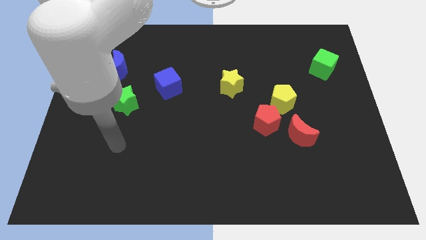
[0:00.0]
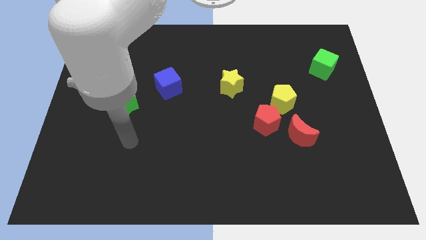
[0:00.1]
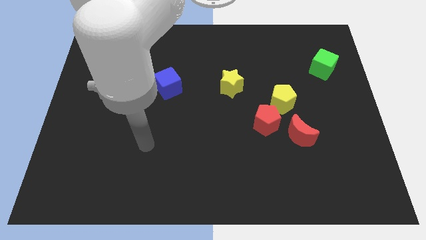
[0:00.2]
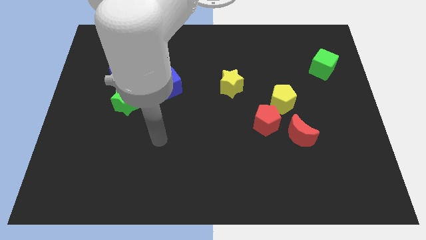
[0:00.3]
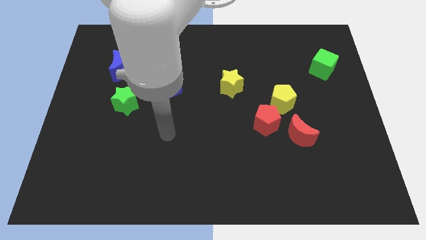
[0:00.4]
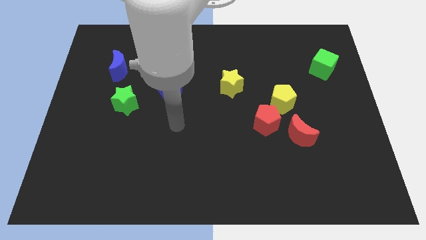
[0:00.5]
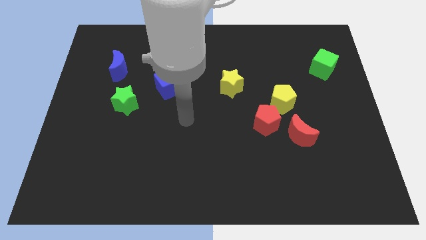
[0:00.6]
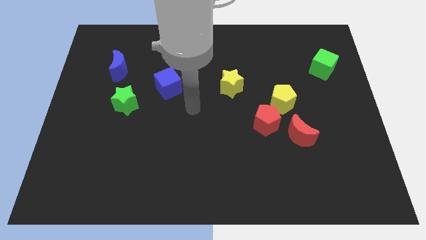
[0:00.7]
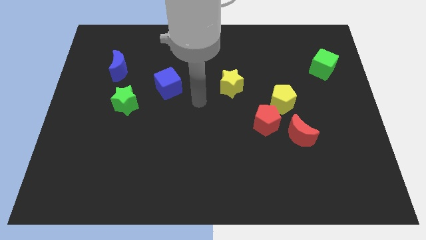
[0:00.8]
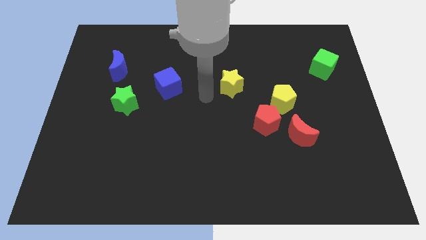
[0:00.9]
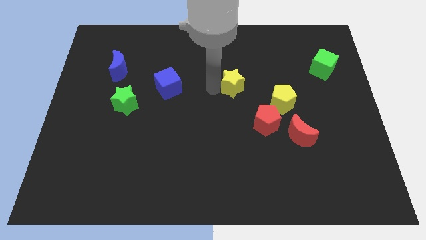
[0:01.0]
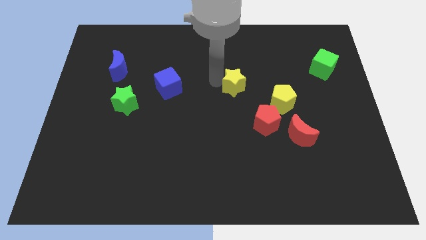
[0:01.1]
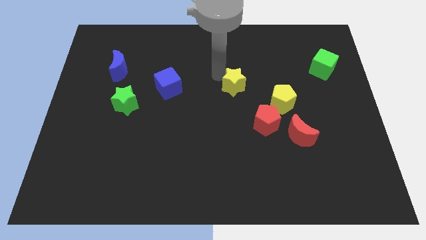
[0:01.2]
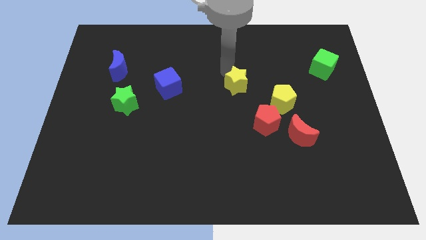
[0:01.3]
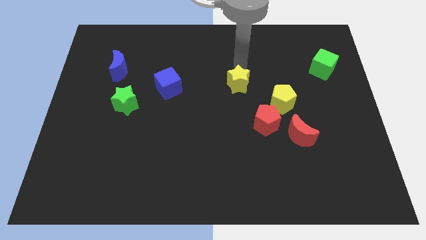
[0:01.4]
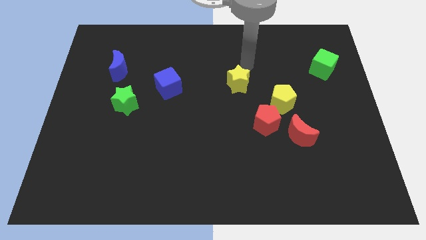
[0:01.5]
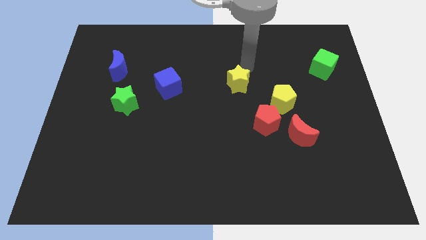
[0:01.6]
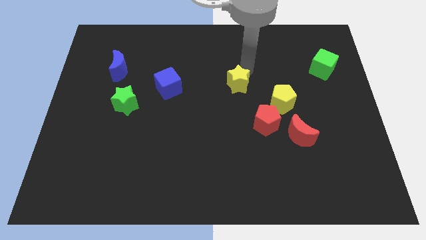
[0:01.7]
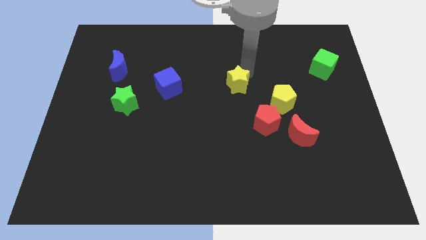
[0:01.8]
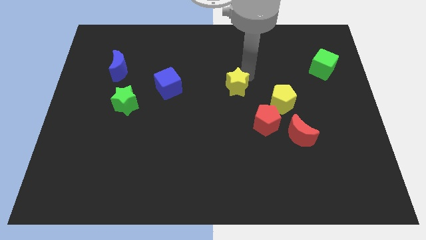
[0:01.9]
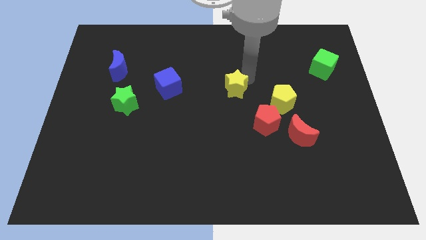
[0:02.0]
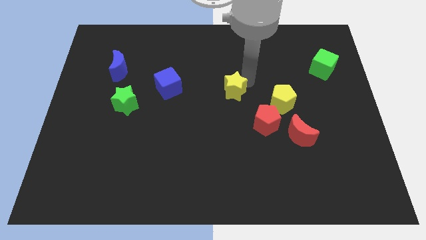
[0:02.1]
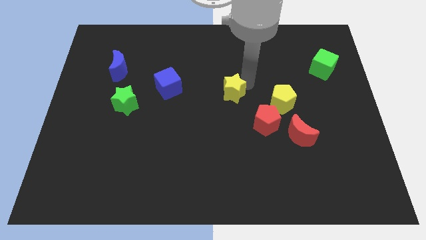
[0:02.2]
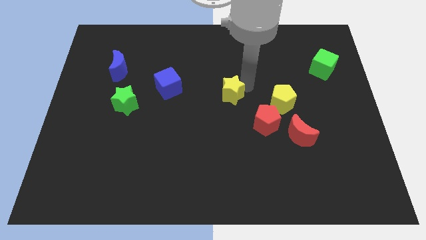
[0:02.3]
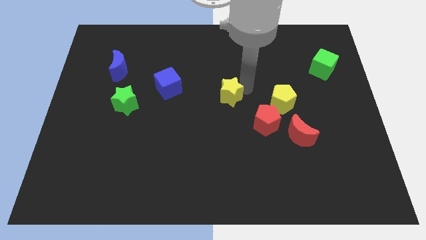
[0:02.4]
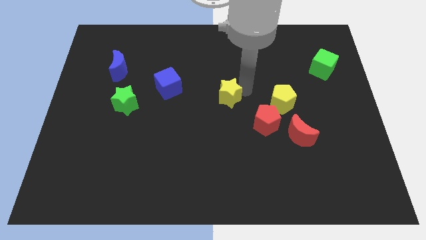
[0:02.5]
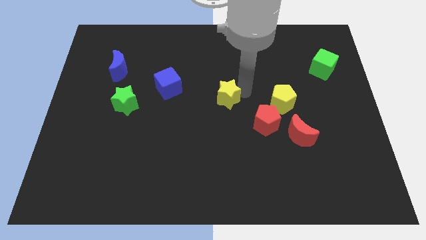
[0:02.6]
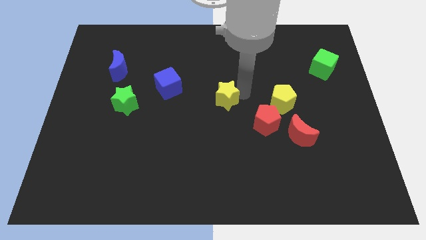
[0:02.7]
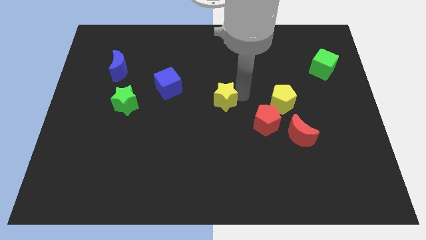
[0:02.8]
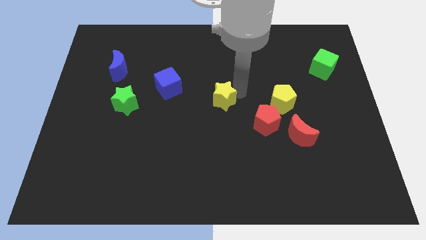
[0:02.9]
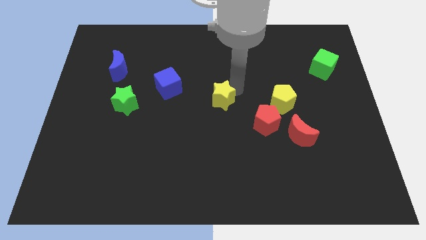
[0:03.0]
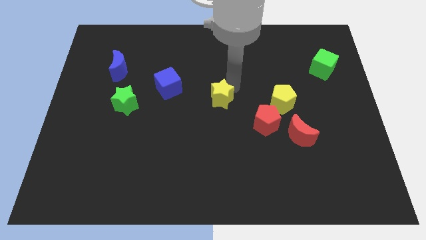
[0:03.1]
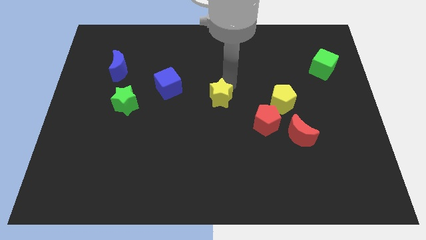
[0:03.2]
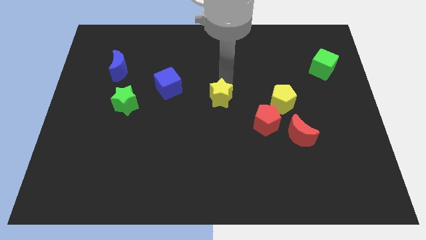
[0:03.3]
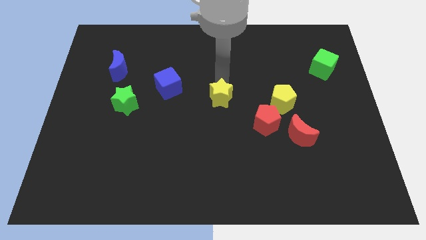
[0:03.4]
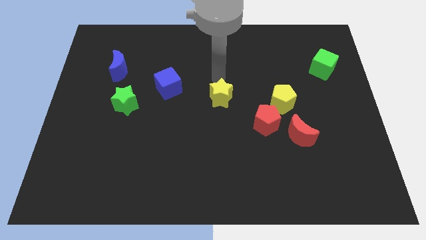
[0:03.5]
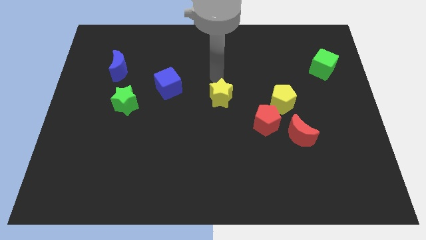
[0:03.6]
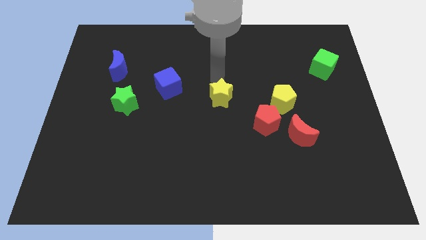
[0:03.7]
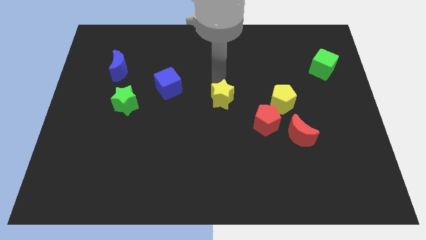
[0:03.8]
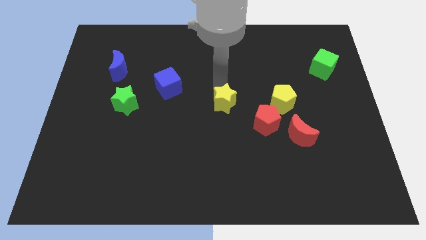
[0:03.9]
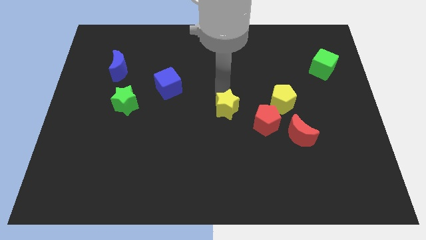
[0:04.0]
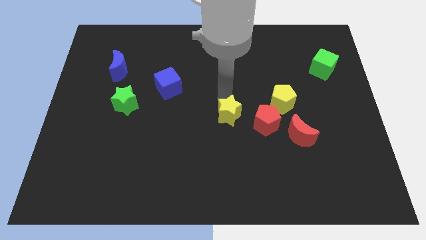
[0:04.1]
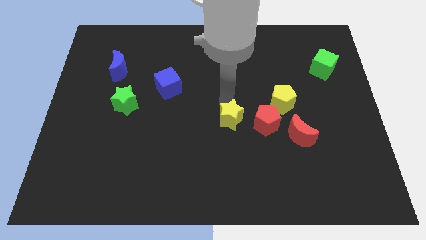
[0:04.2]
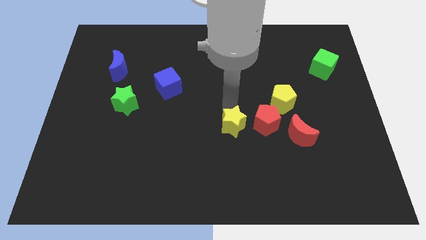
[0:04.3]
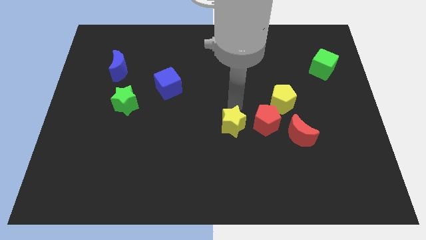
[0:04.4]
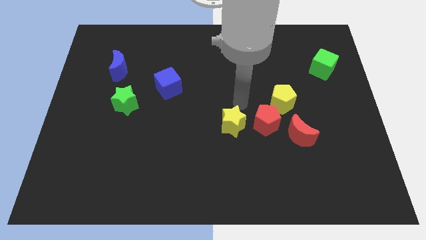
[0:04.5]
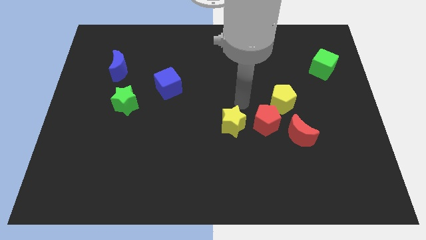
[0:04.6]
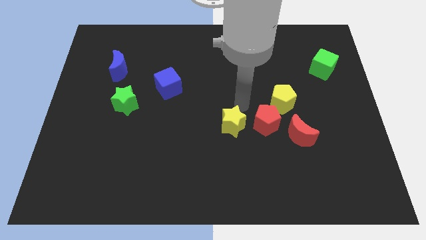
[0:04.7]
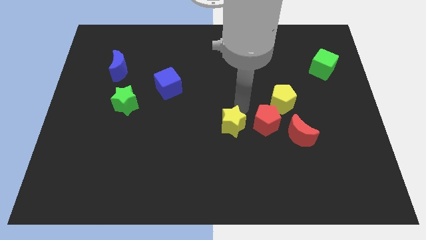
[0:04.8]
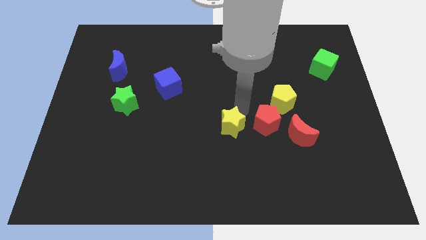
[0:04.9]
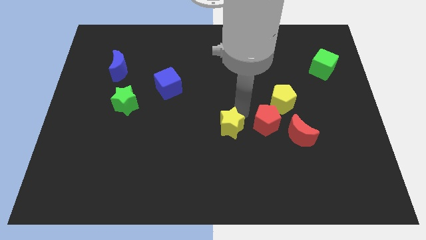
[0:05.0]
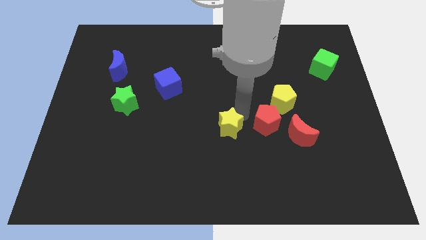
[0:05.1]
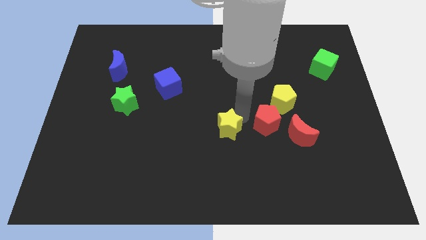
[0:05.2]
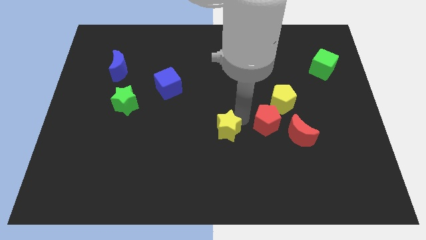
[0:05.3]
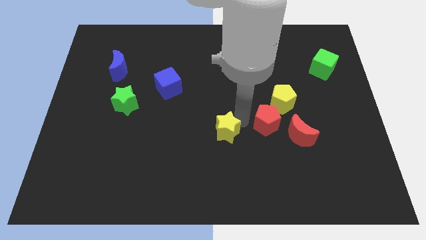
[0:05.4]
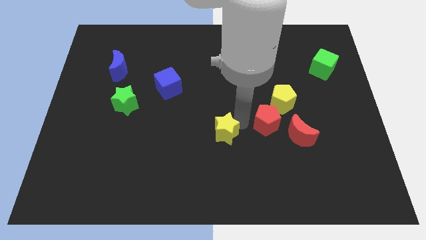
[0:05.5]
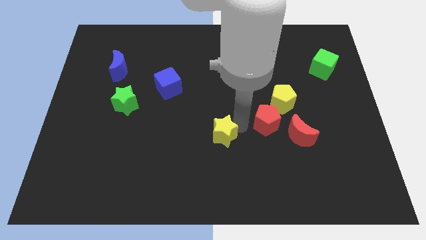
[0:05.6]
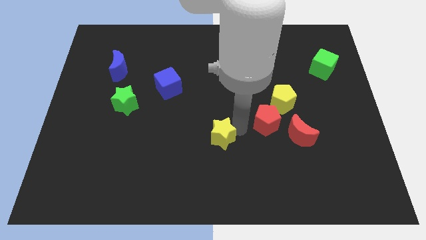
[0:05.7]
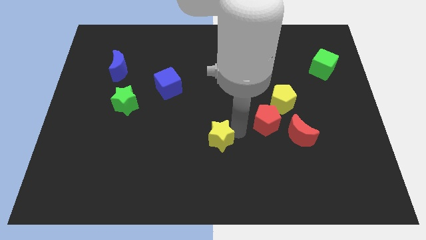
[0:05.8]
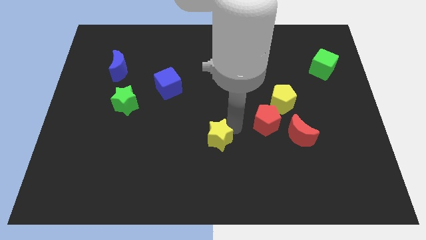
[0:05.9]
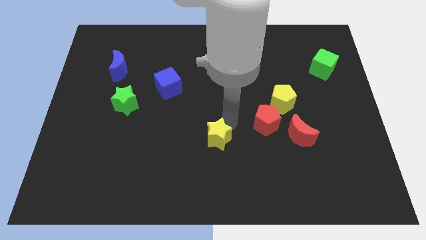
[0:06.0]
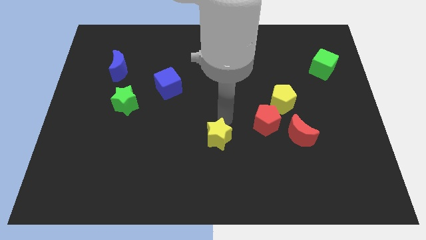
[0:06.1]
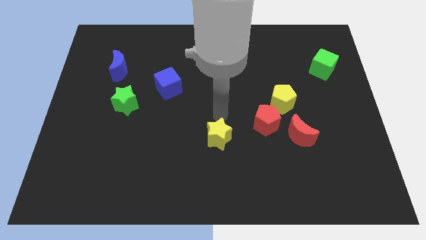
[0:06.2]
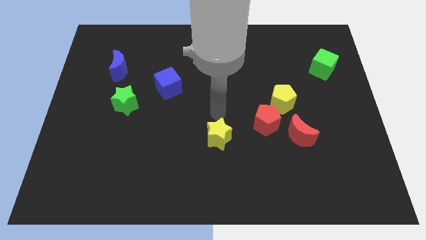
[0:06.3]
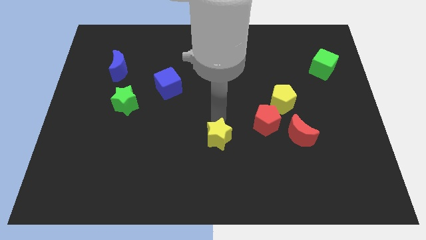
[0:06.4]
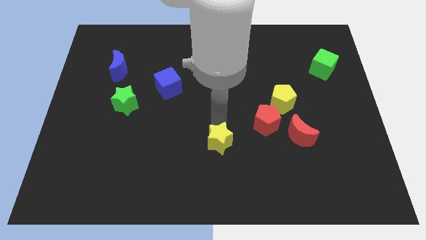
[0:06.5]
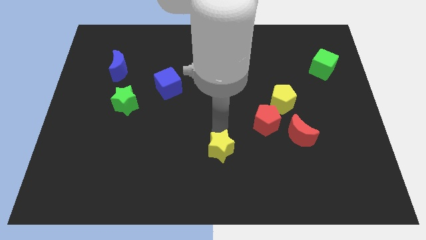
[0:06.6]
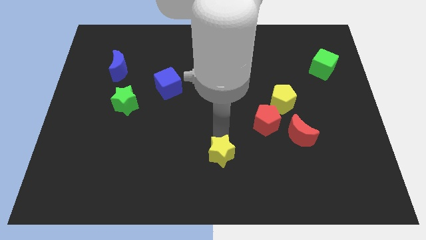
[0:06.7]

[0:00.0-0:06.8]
push the yellow star to the bottom side
